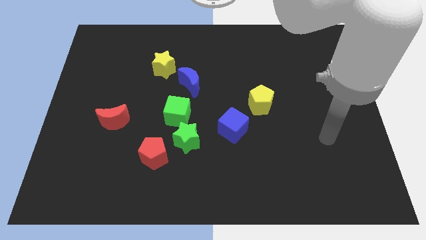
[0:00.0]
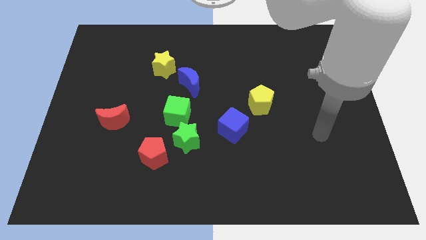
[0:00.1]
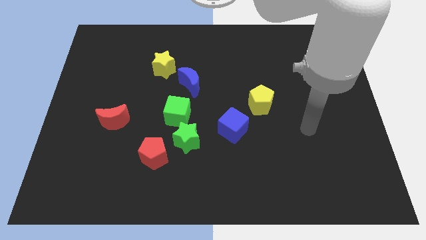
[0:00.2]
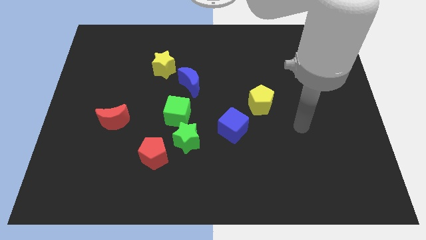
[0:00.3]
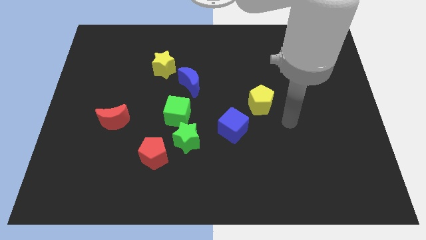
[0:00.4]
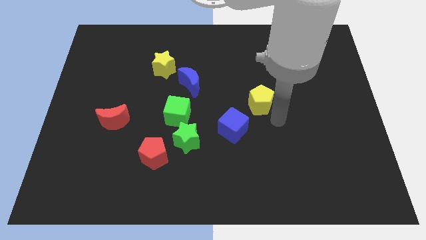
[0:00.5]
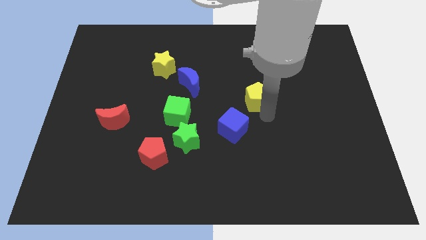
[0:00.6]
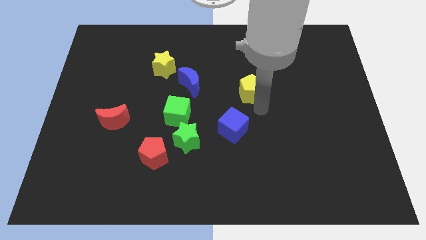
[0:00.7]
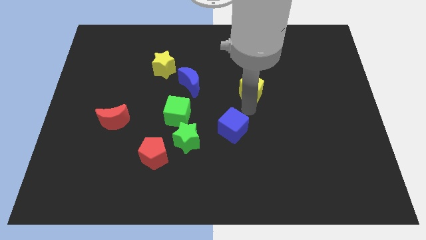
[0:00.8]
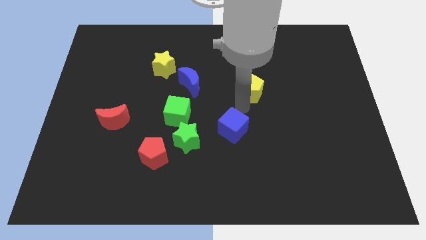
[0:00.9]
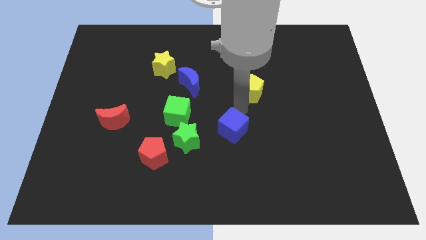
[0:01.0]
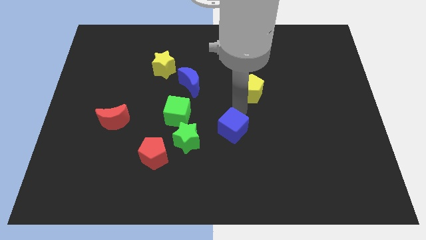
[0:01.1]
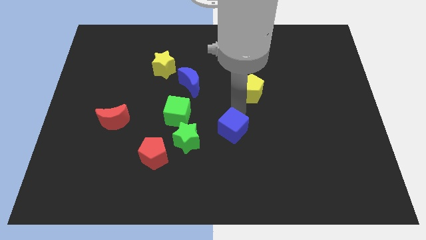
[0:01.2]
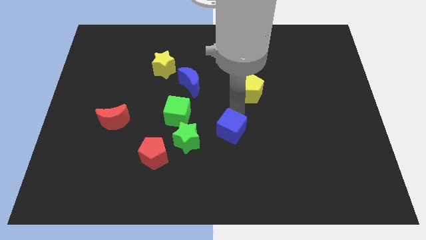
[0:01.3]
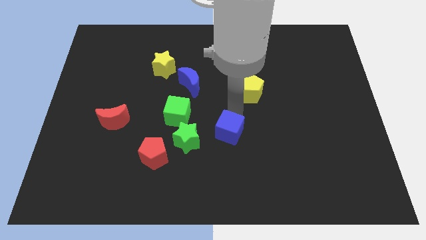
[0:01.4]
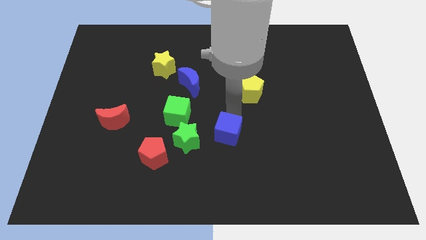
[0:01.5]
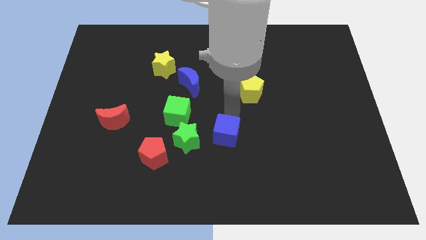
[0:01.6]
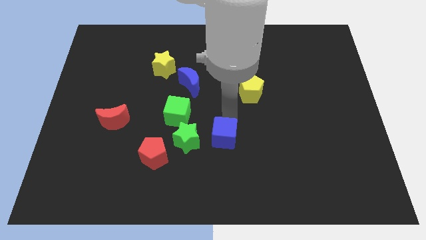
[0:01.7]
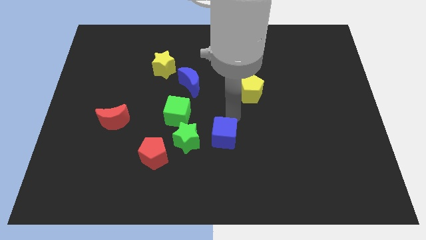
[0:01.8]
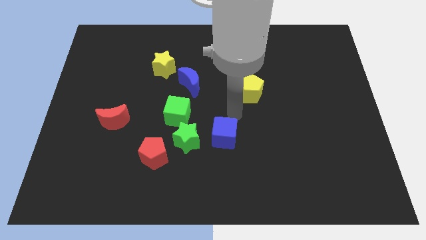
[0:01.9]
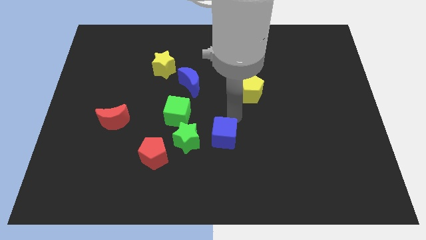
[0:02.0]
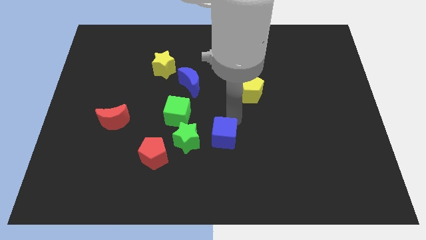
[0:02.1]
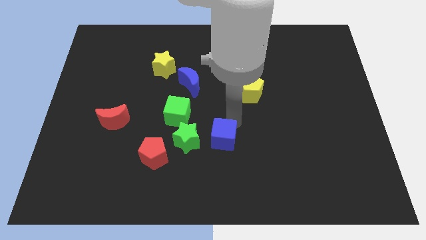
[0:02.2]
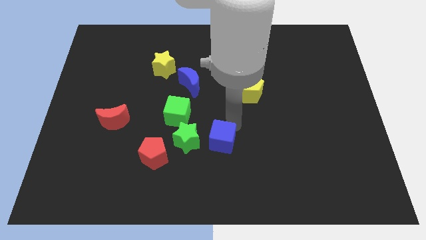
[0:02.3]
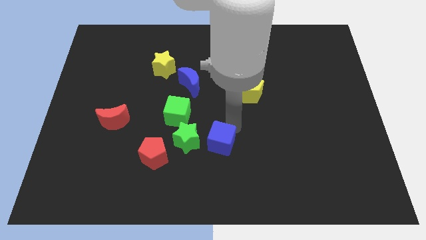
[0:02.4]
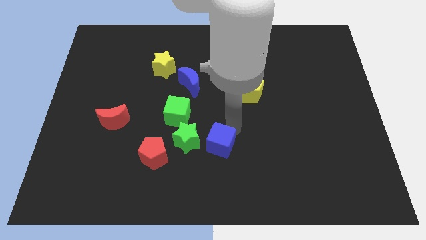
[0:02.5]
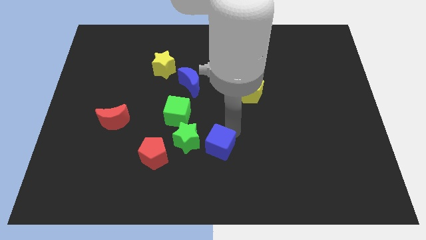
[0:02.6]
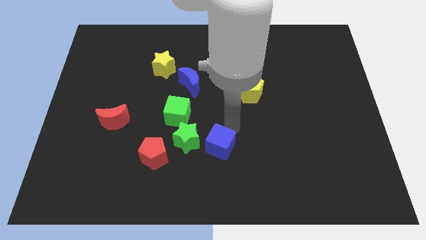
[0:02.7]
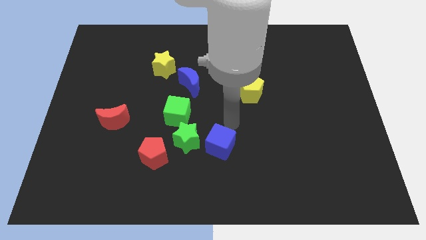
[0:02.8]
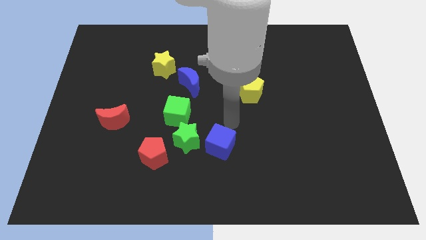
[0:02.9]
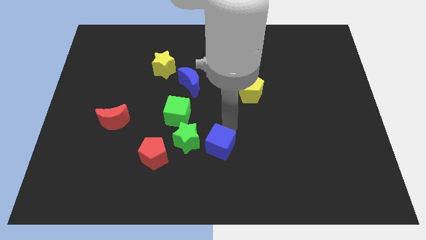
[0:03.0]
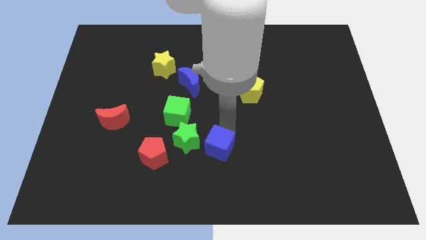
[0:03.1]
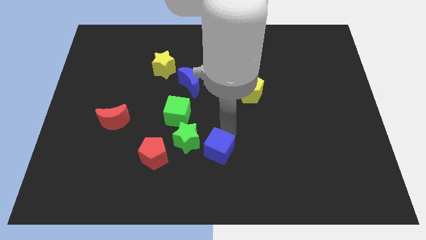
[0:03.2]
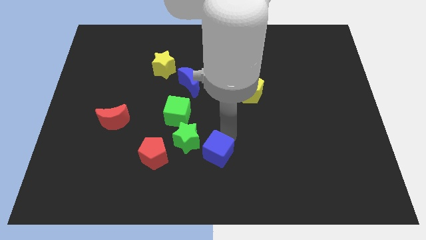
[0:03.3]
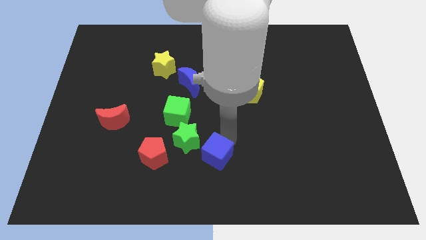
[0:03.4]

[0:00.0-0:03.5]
move the blue cube diagonally downwards and left somewhat

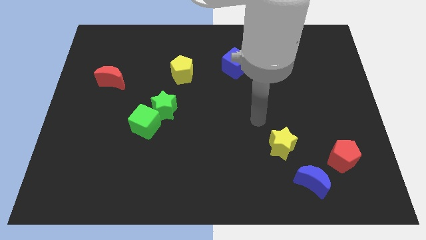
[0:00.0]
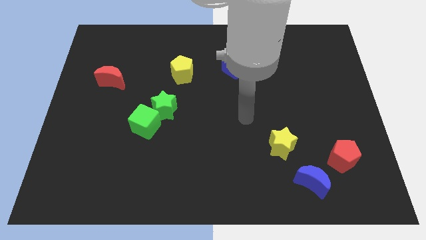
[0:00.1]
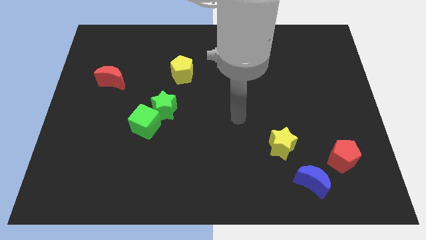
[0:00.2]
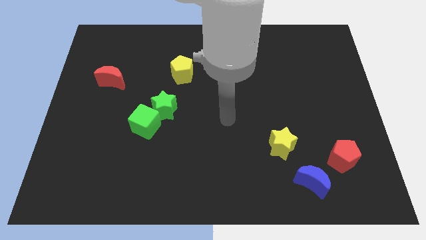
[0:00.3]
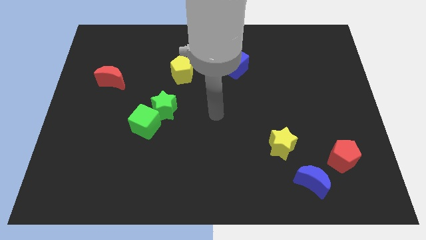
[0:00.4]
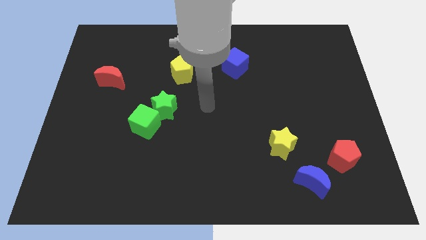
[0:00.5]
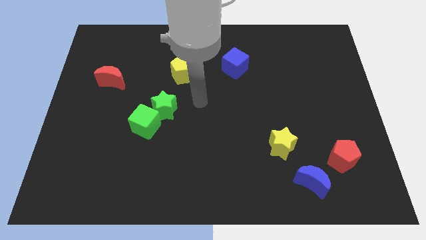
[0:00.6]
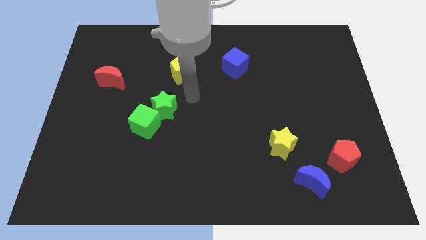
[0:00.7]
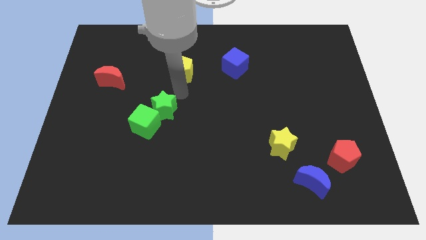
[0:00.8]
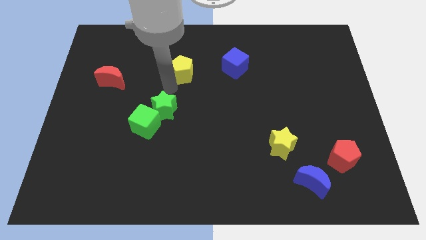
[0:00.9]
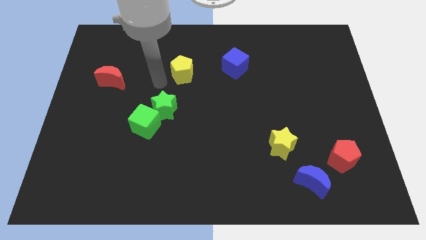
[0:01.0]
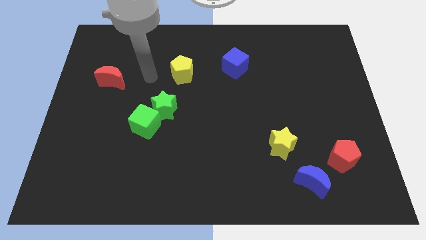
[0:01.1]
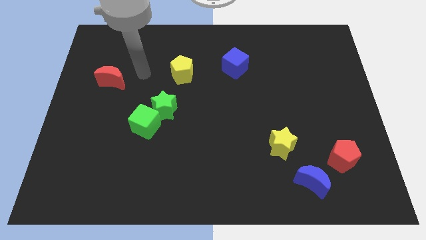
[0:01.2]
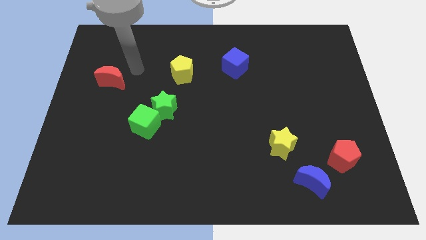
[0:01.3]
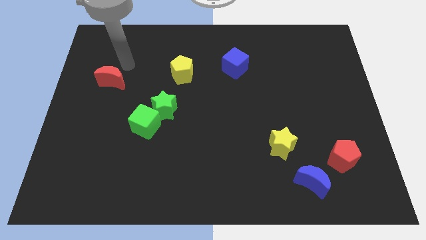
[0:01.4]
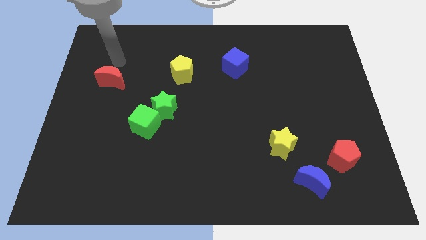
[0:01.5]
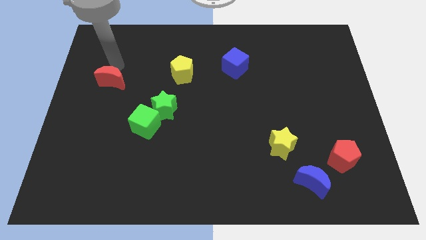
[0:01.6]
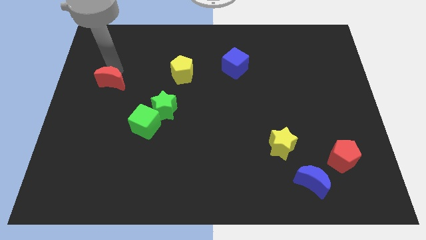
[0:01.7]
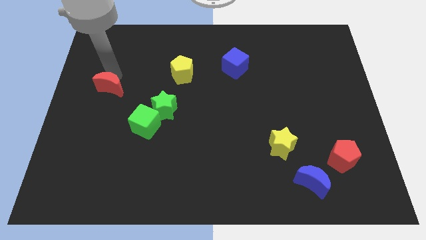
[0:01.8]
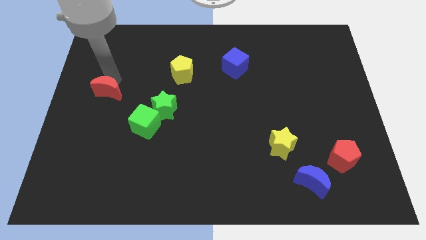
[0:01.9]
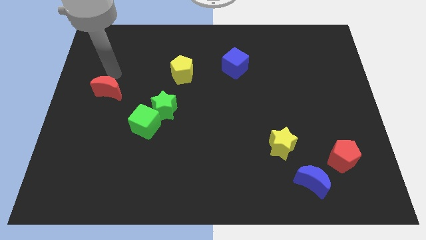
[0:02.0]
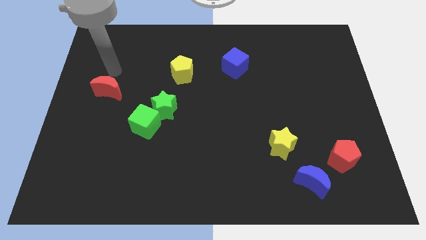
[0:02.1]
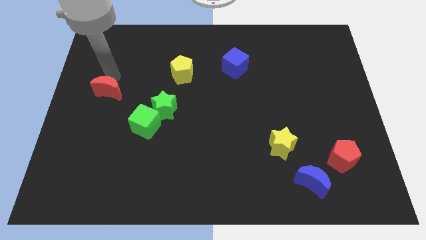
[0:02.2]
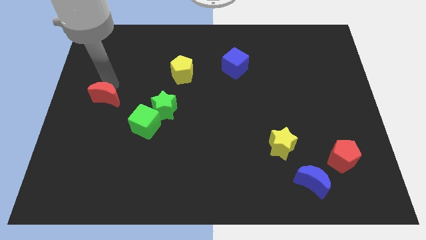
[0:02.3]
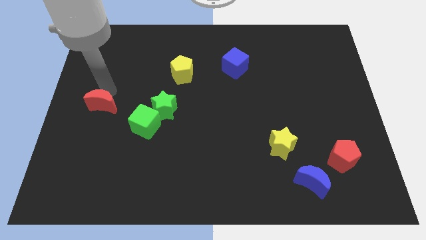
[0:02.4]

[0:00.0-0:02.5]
move the red moon somewhat downwards

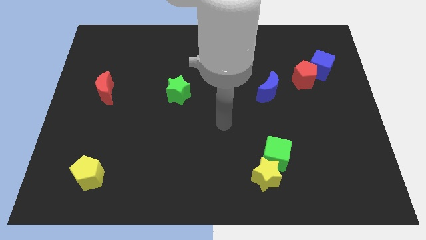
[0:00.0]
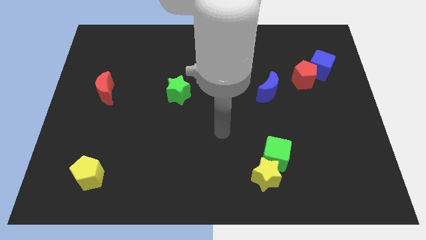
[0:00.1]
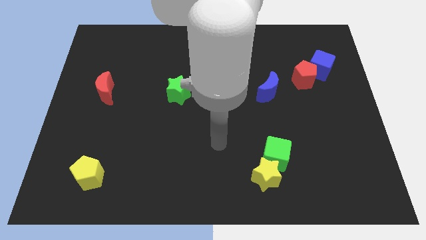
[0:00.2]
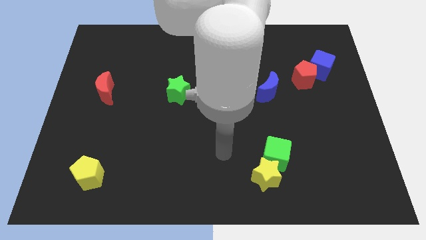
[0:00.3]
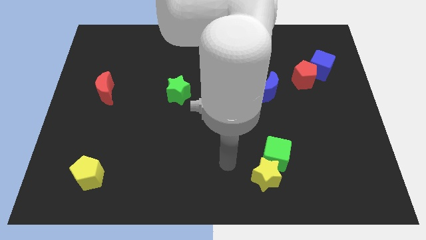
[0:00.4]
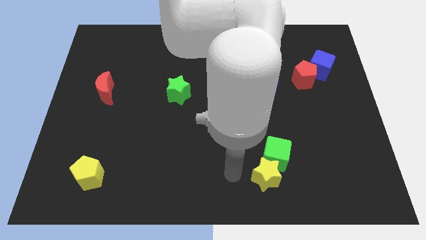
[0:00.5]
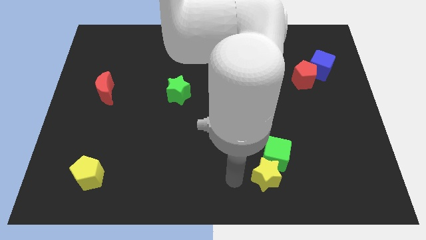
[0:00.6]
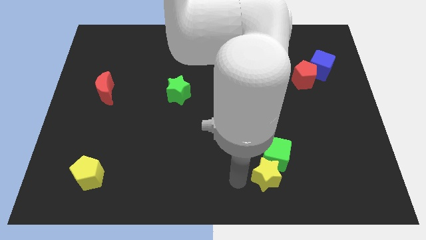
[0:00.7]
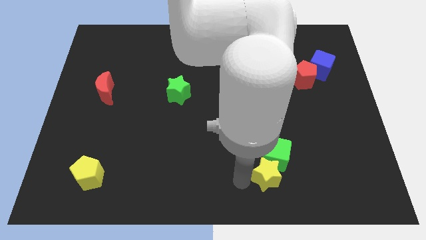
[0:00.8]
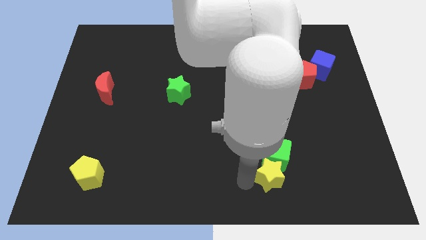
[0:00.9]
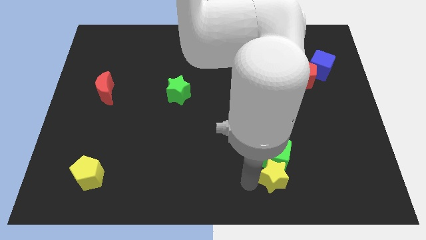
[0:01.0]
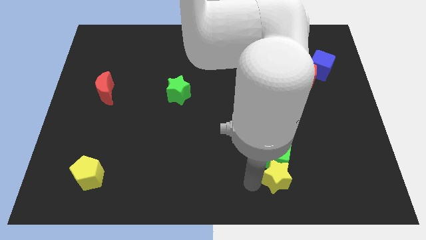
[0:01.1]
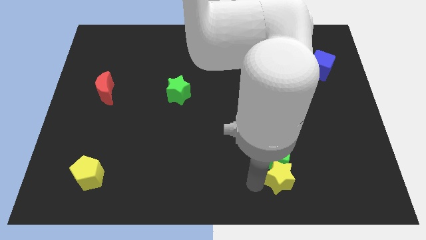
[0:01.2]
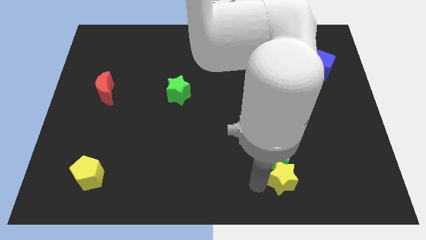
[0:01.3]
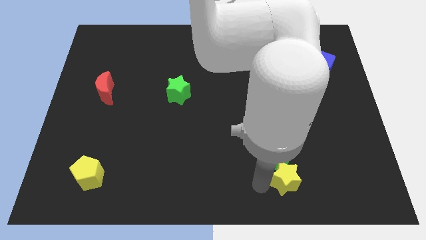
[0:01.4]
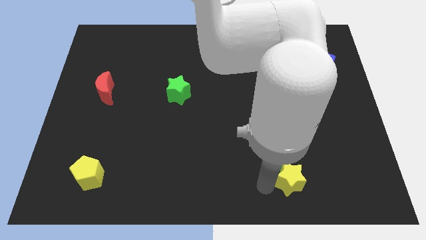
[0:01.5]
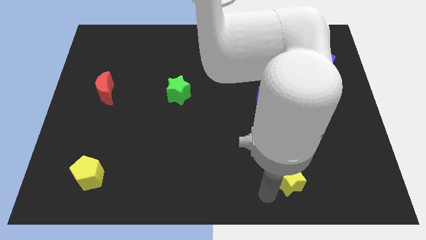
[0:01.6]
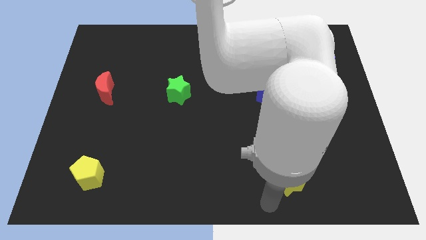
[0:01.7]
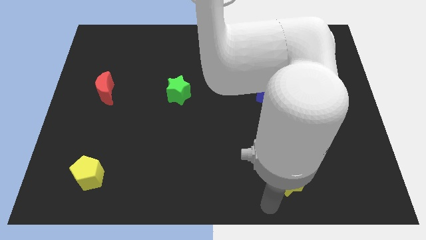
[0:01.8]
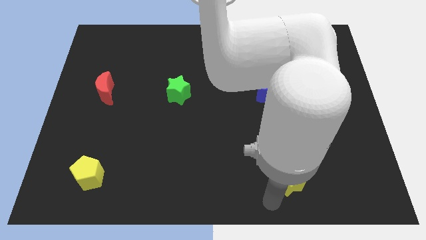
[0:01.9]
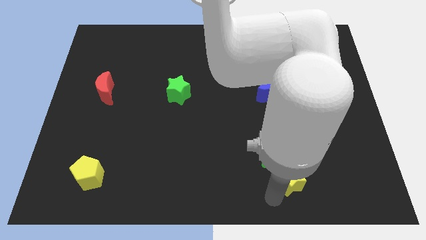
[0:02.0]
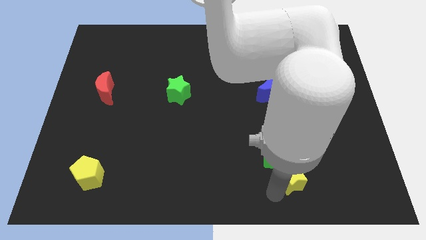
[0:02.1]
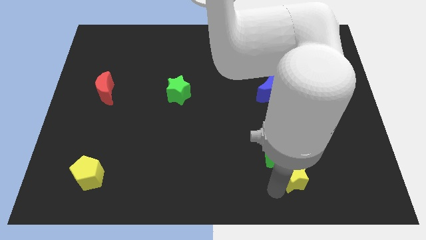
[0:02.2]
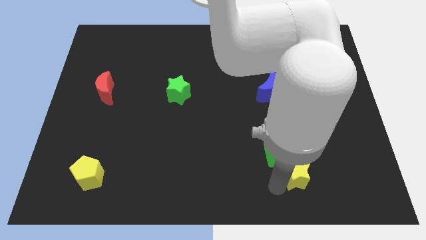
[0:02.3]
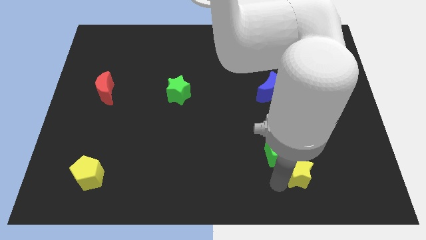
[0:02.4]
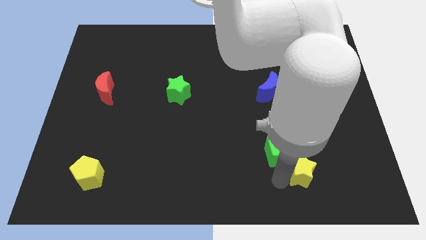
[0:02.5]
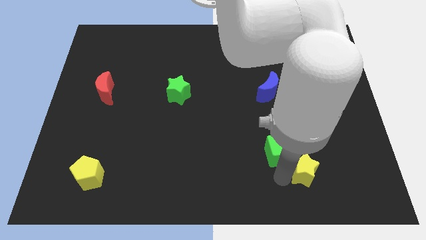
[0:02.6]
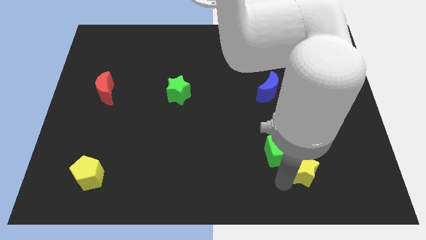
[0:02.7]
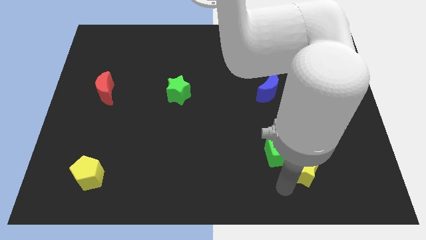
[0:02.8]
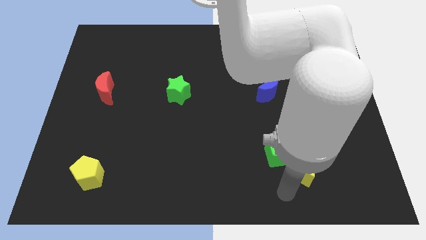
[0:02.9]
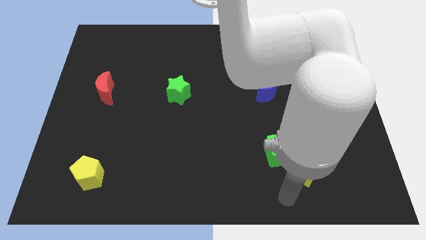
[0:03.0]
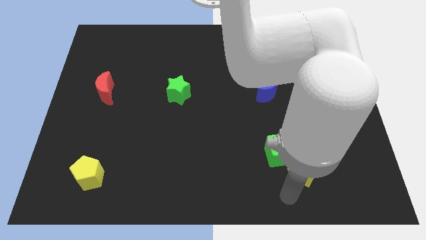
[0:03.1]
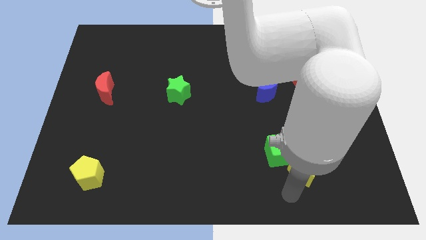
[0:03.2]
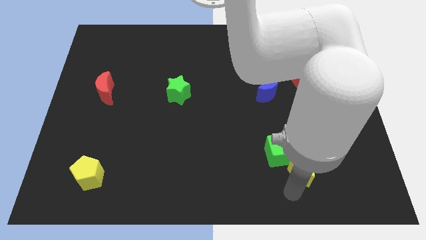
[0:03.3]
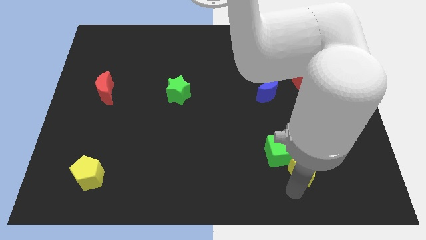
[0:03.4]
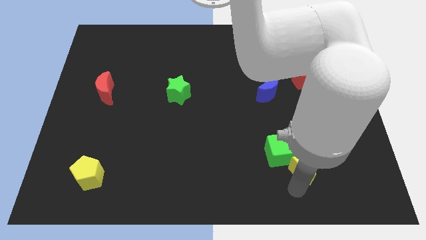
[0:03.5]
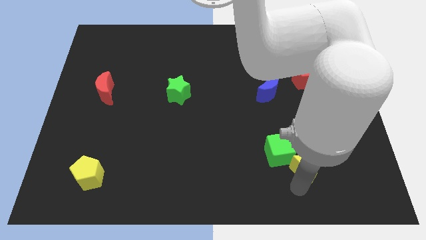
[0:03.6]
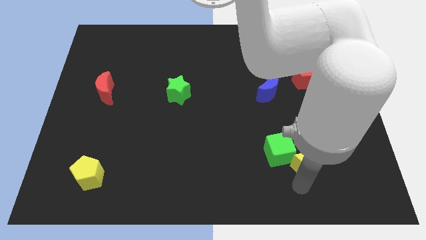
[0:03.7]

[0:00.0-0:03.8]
push the yellow star somewhat up and to the right
